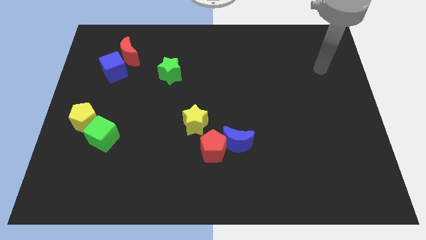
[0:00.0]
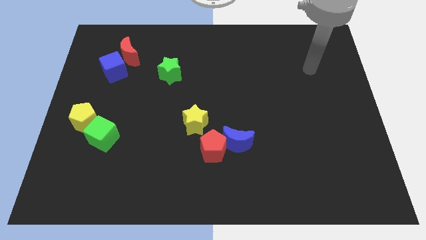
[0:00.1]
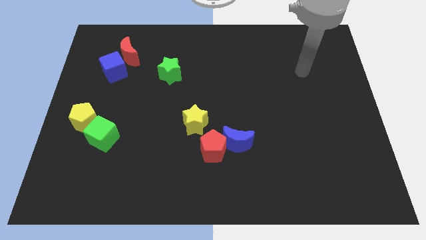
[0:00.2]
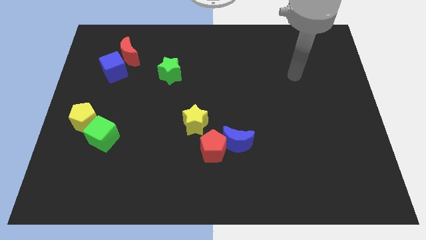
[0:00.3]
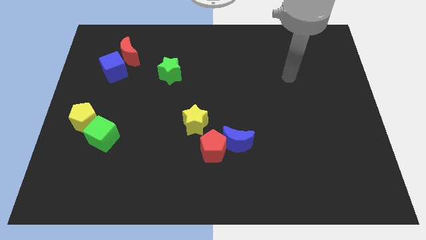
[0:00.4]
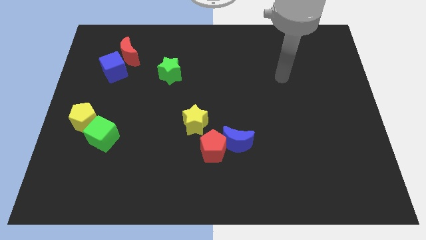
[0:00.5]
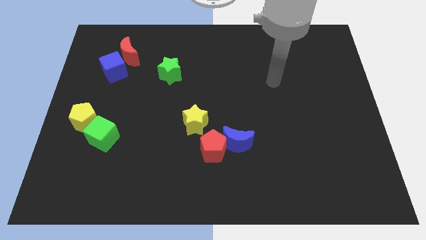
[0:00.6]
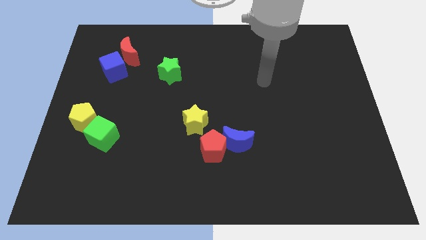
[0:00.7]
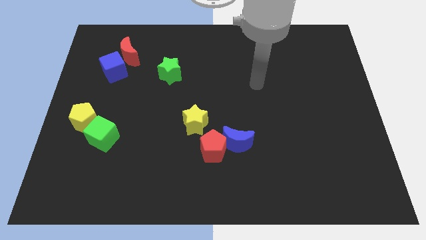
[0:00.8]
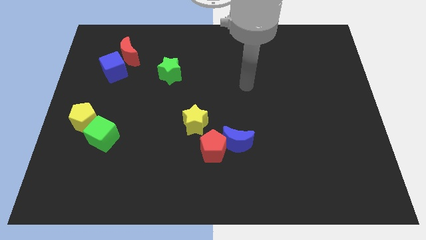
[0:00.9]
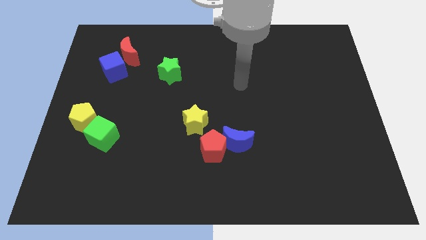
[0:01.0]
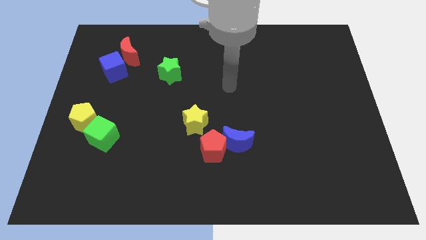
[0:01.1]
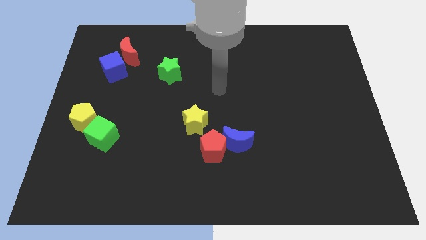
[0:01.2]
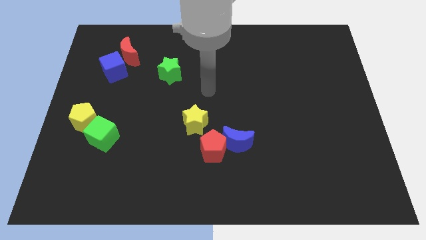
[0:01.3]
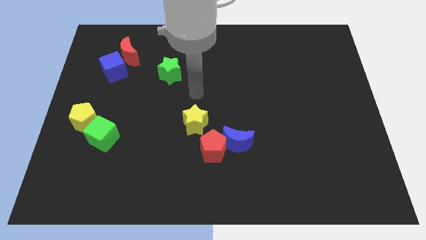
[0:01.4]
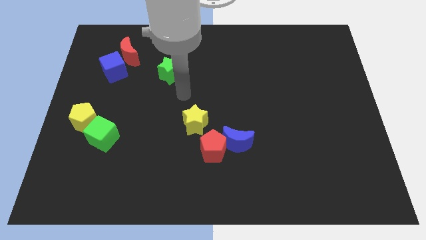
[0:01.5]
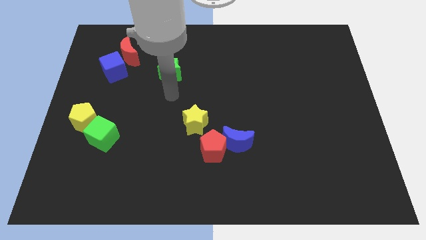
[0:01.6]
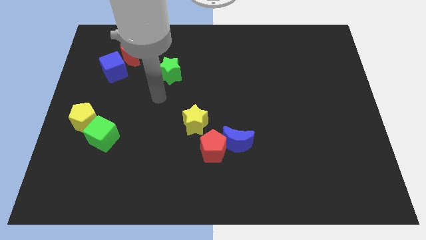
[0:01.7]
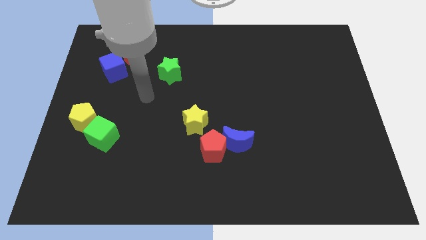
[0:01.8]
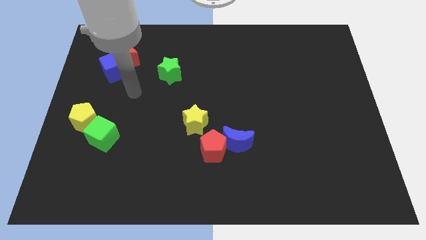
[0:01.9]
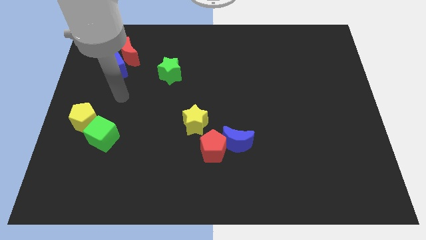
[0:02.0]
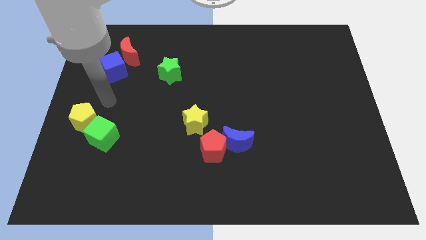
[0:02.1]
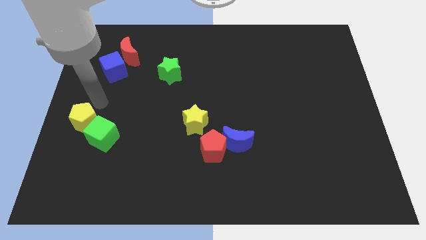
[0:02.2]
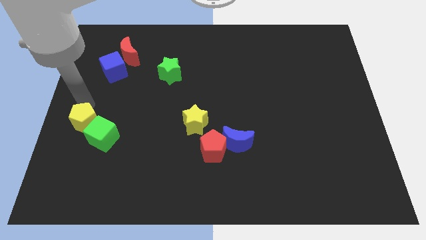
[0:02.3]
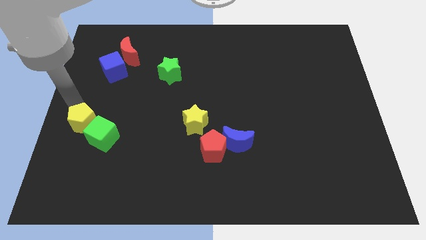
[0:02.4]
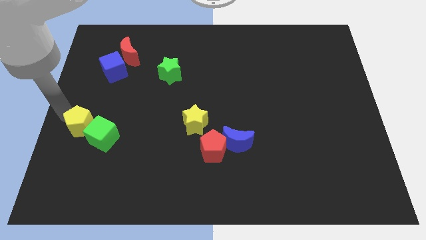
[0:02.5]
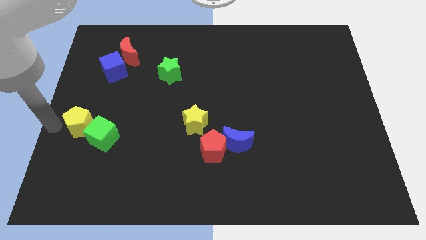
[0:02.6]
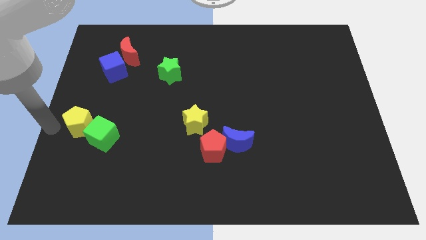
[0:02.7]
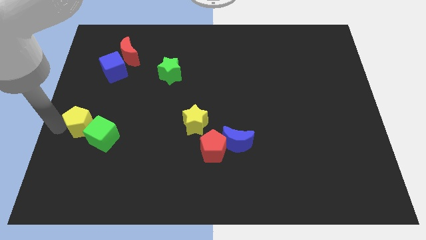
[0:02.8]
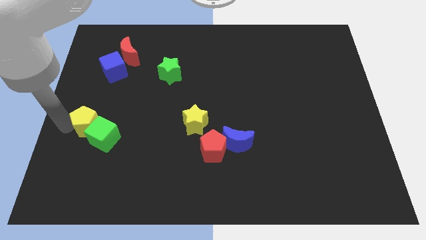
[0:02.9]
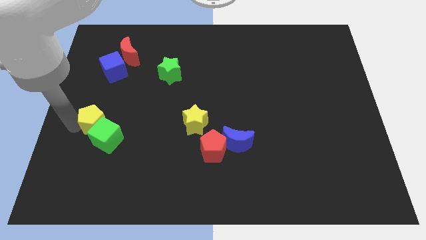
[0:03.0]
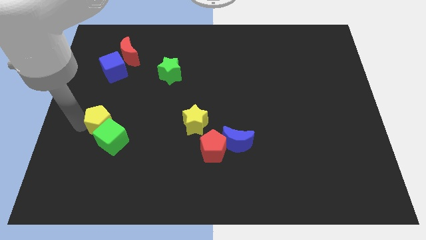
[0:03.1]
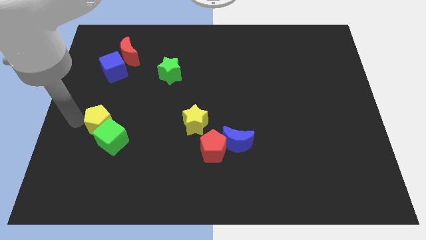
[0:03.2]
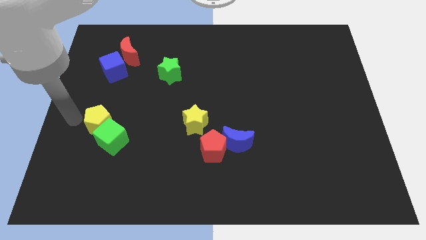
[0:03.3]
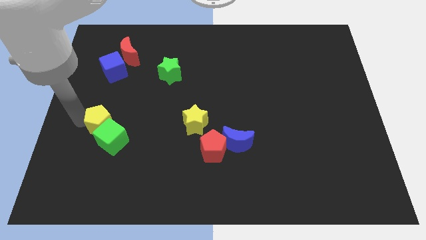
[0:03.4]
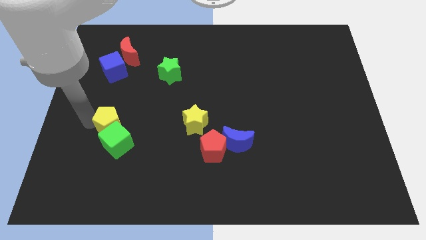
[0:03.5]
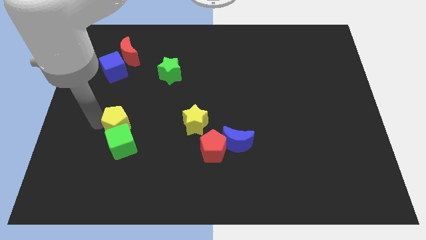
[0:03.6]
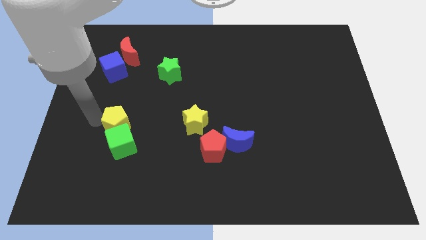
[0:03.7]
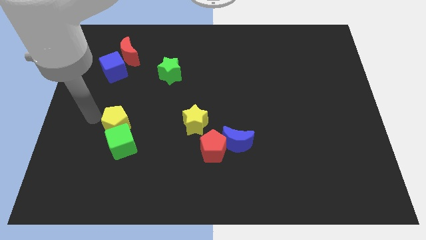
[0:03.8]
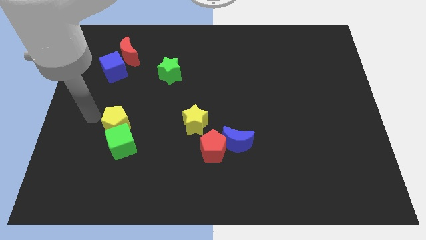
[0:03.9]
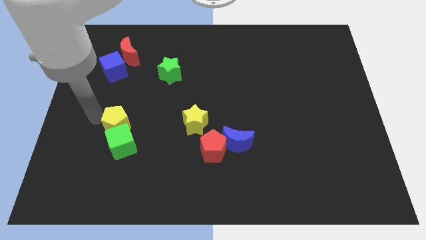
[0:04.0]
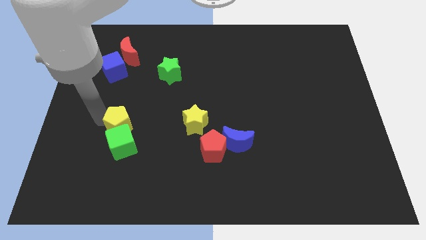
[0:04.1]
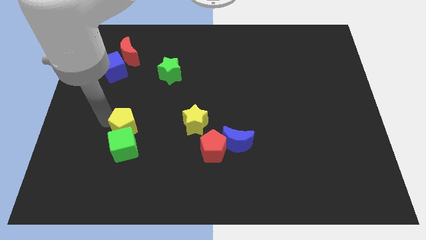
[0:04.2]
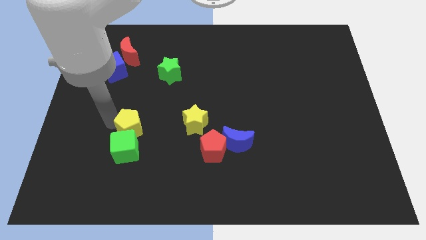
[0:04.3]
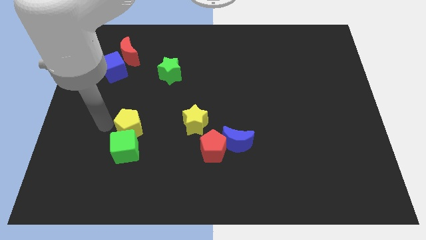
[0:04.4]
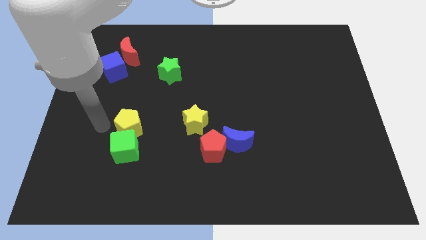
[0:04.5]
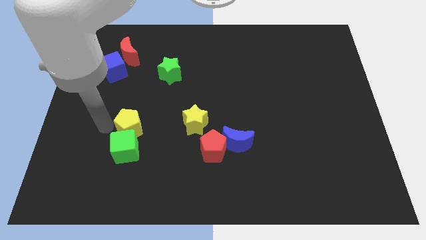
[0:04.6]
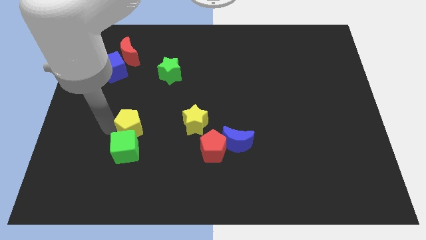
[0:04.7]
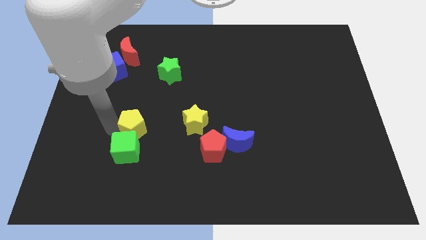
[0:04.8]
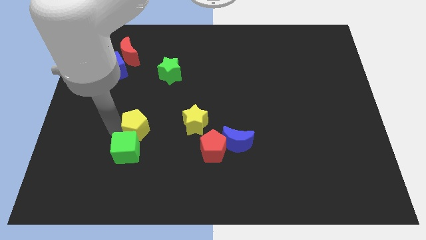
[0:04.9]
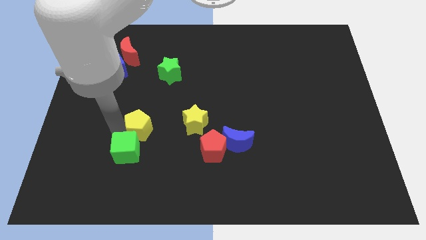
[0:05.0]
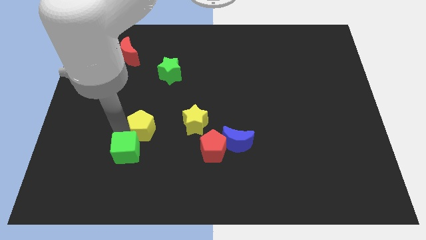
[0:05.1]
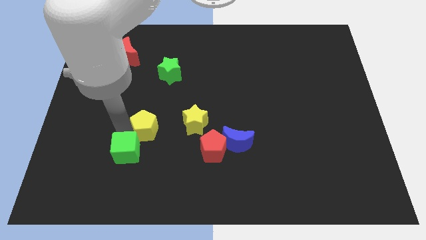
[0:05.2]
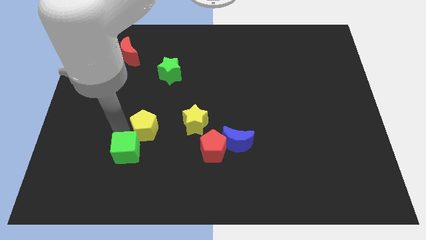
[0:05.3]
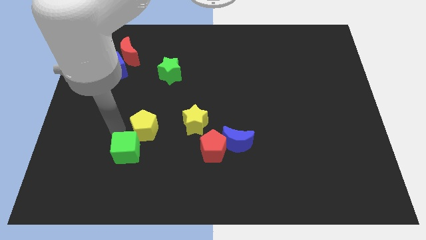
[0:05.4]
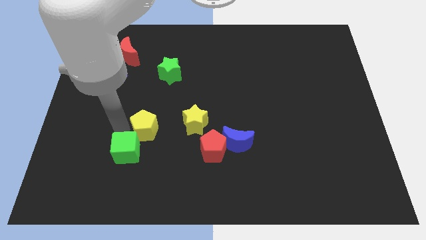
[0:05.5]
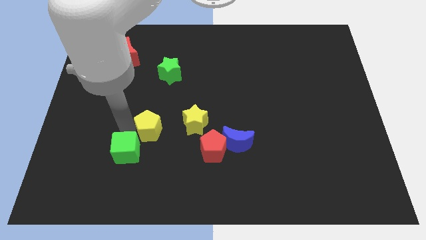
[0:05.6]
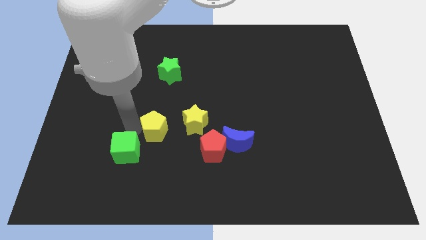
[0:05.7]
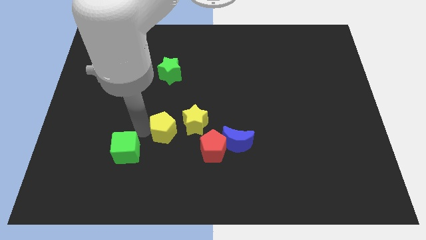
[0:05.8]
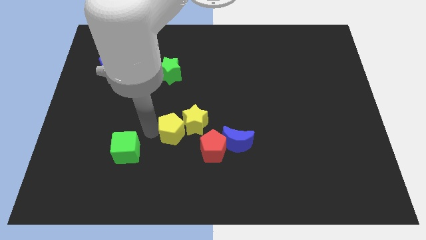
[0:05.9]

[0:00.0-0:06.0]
slide the yellow pentagon to the yellow star

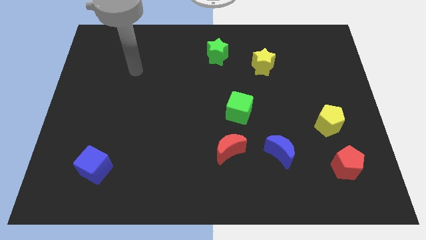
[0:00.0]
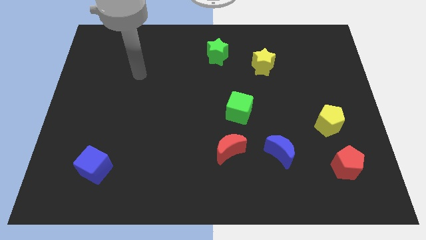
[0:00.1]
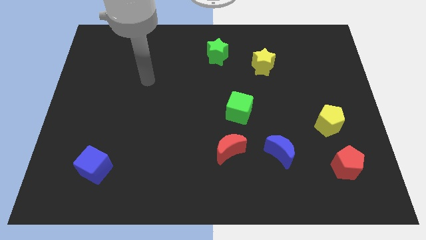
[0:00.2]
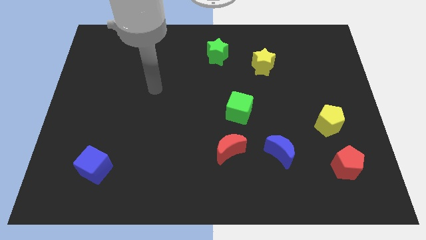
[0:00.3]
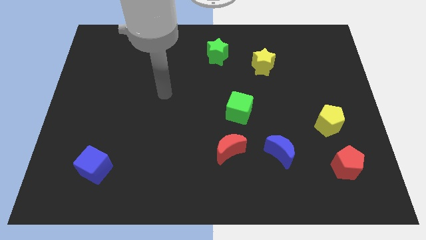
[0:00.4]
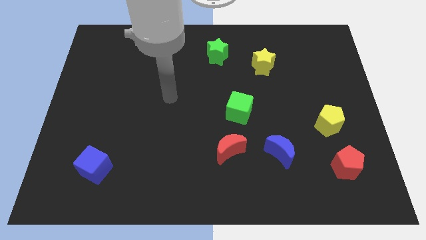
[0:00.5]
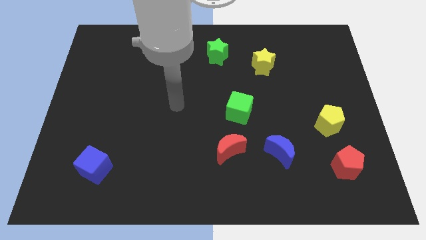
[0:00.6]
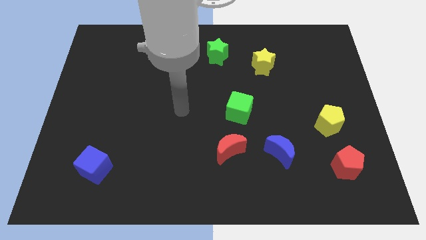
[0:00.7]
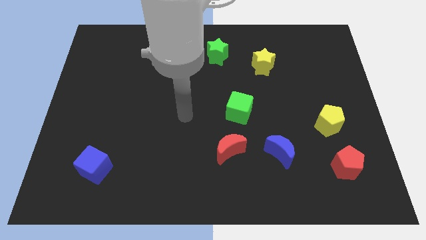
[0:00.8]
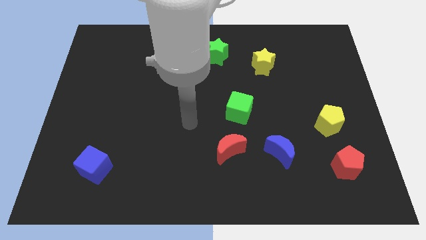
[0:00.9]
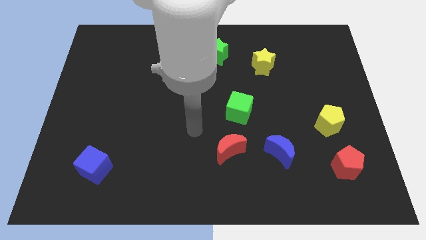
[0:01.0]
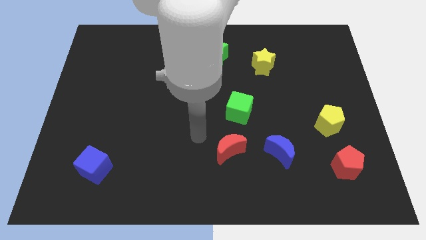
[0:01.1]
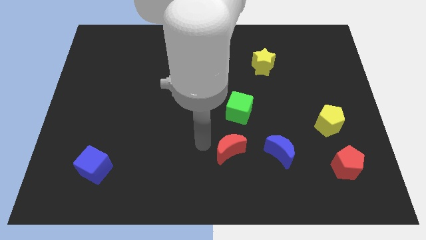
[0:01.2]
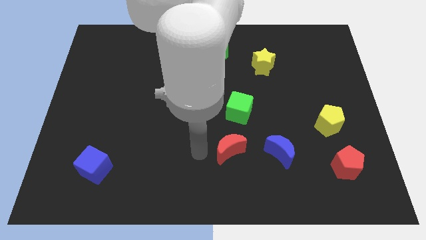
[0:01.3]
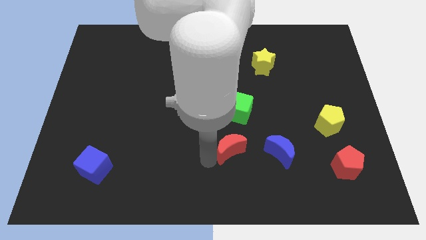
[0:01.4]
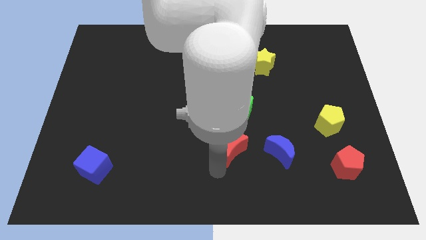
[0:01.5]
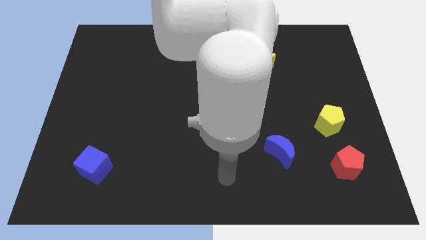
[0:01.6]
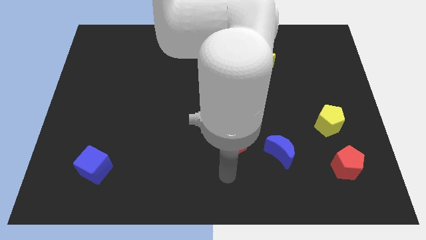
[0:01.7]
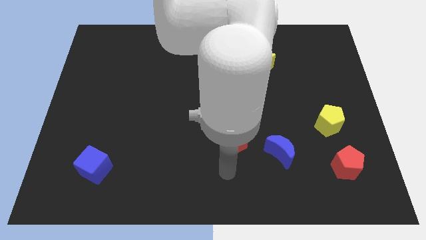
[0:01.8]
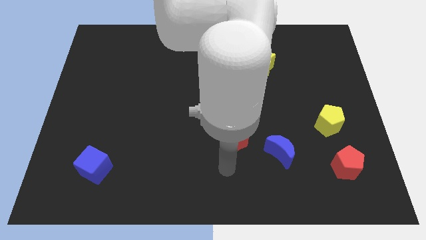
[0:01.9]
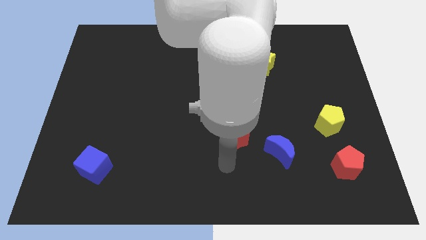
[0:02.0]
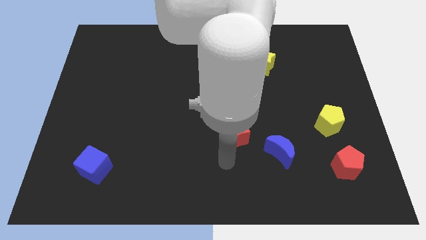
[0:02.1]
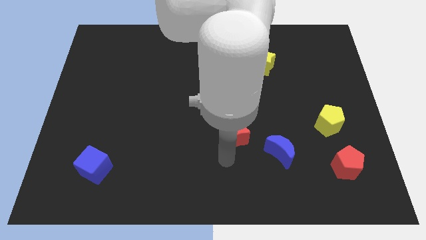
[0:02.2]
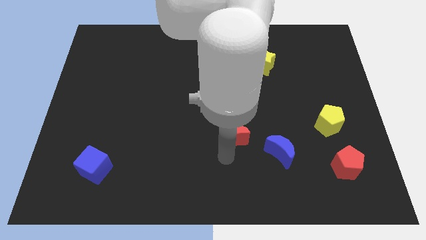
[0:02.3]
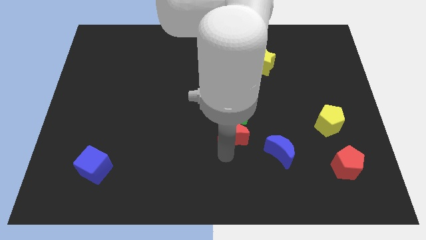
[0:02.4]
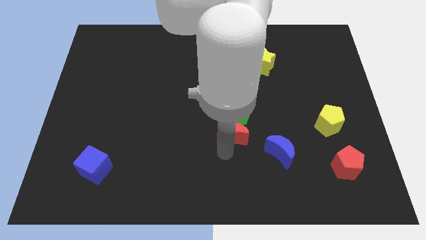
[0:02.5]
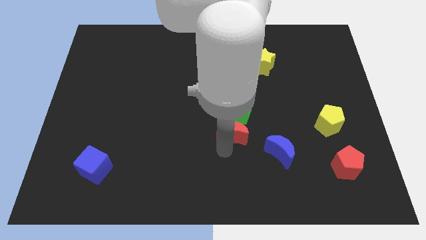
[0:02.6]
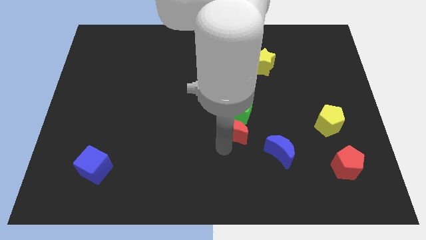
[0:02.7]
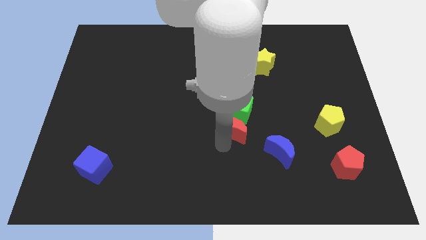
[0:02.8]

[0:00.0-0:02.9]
put the red moon next to the green cube
